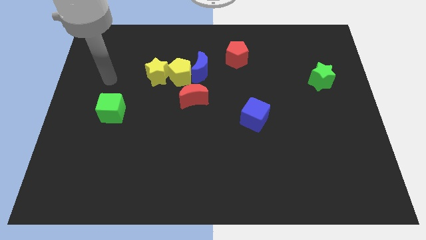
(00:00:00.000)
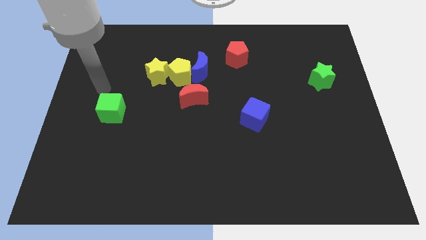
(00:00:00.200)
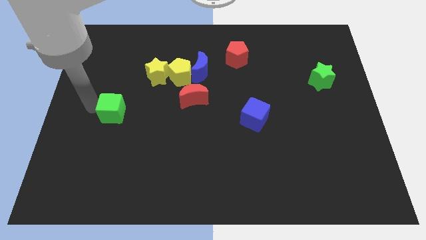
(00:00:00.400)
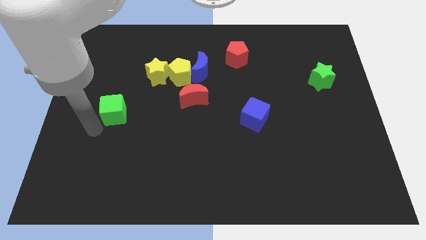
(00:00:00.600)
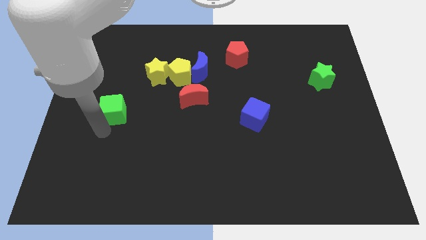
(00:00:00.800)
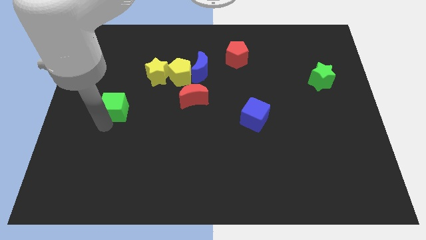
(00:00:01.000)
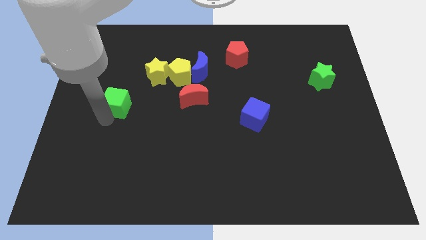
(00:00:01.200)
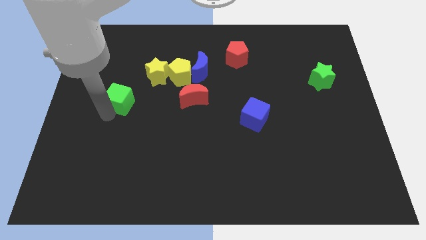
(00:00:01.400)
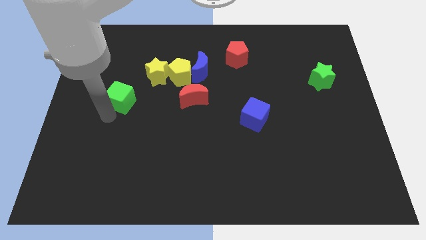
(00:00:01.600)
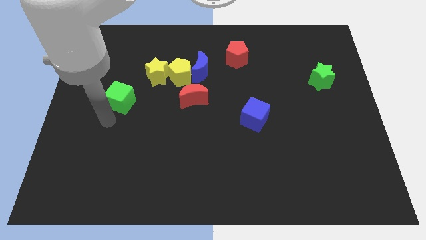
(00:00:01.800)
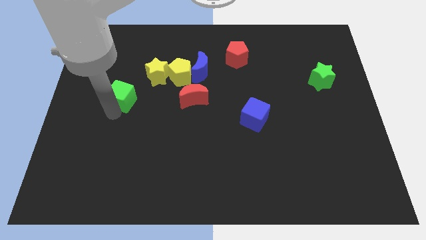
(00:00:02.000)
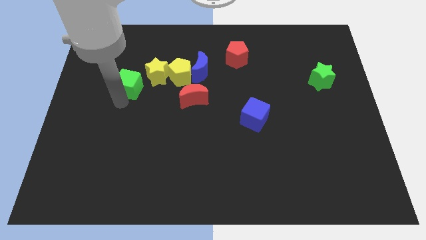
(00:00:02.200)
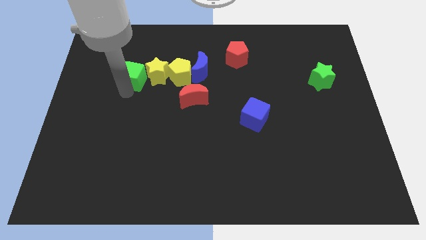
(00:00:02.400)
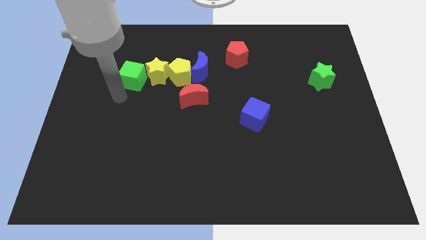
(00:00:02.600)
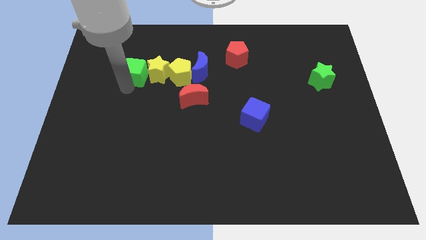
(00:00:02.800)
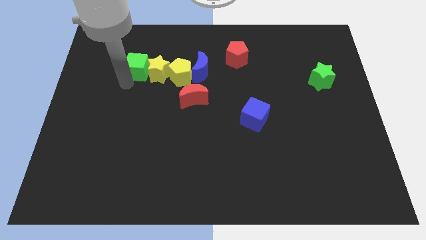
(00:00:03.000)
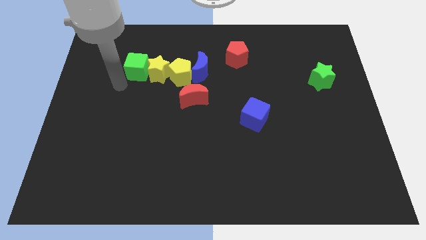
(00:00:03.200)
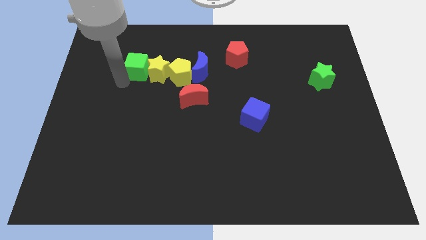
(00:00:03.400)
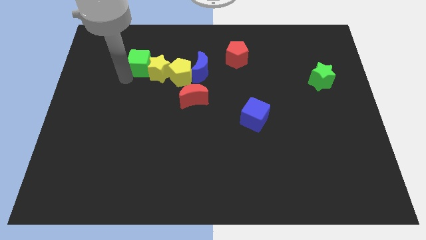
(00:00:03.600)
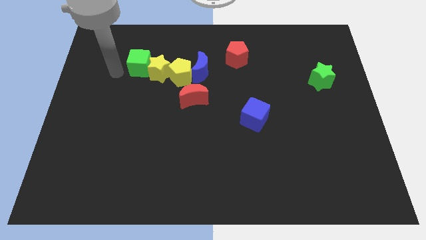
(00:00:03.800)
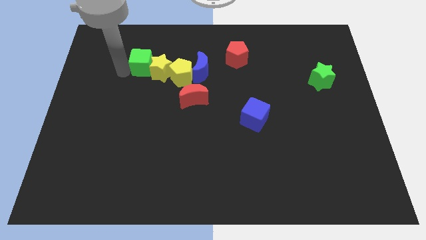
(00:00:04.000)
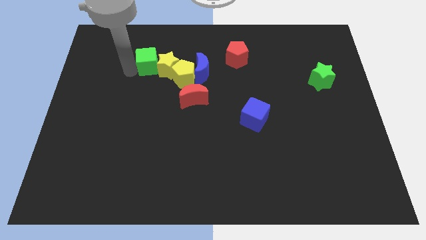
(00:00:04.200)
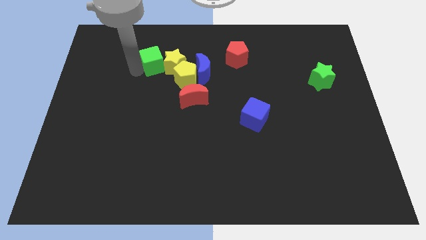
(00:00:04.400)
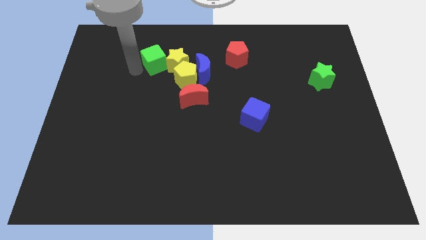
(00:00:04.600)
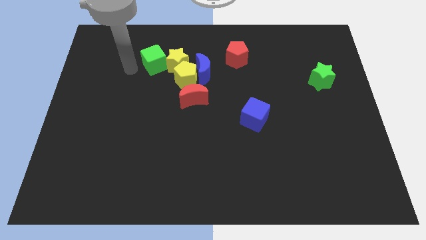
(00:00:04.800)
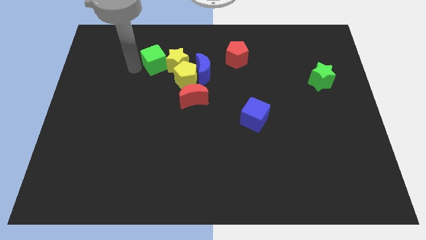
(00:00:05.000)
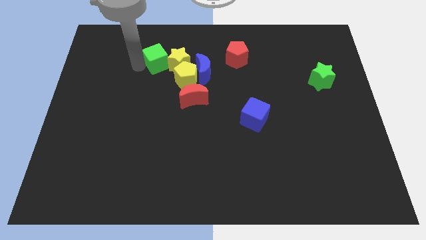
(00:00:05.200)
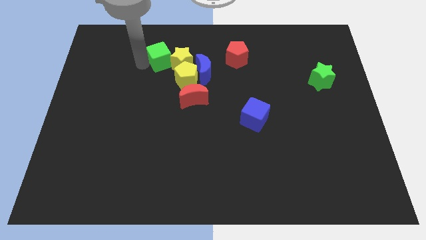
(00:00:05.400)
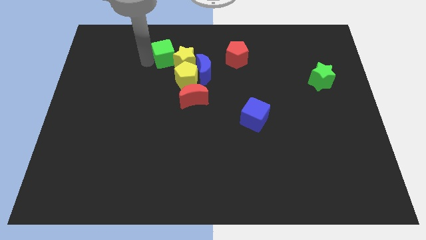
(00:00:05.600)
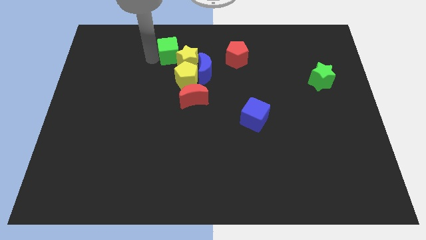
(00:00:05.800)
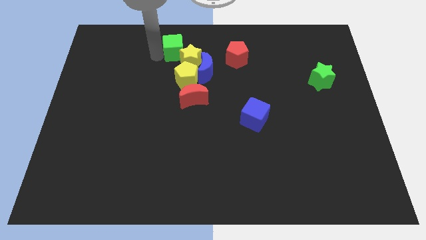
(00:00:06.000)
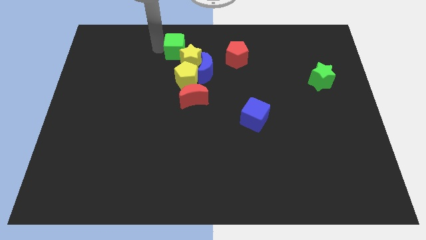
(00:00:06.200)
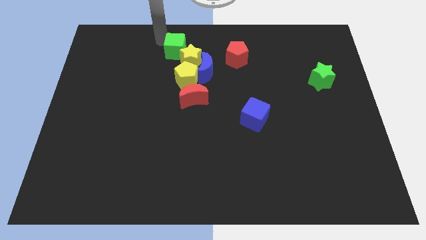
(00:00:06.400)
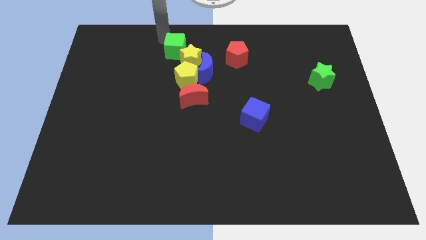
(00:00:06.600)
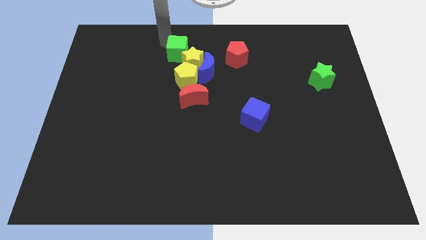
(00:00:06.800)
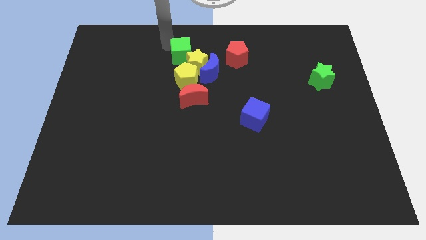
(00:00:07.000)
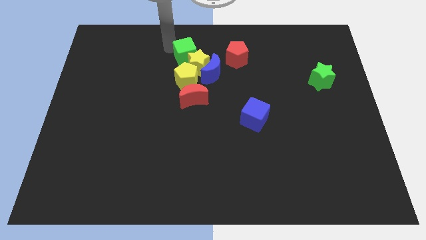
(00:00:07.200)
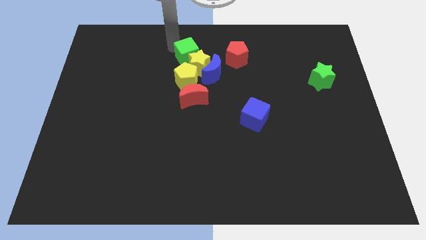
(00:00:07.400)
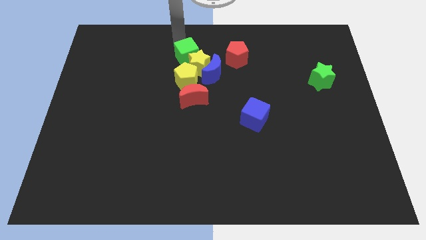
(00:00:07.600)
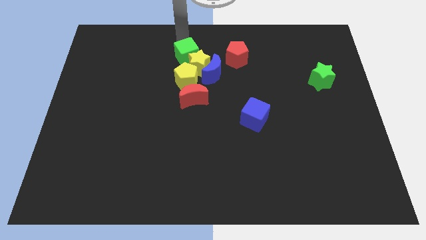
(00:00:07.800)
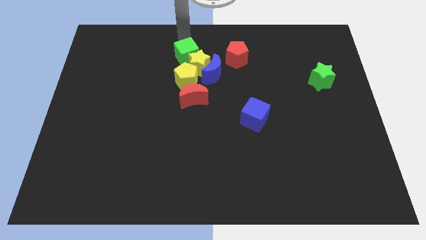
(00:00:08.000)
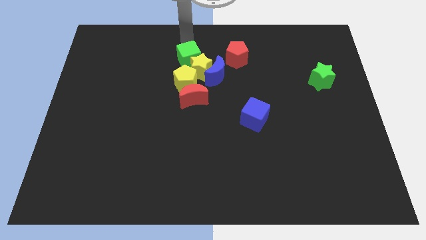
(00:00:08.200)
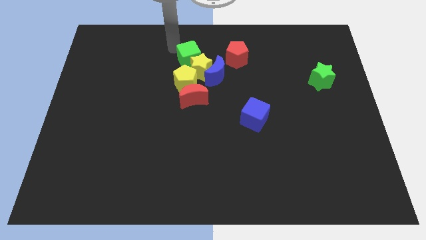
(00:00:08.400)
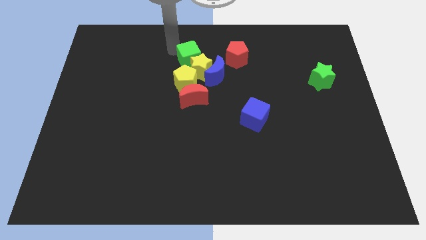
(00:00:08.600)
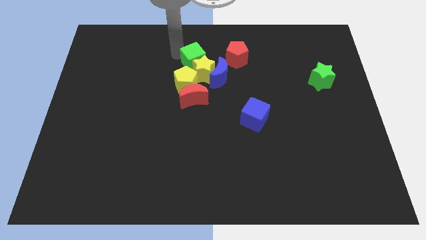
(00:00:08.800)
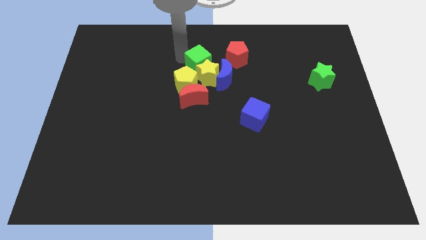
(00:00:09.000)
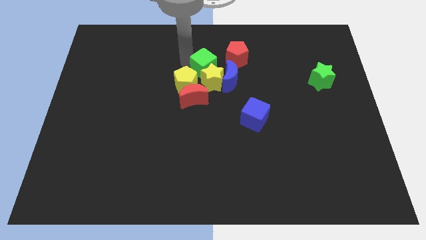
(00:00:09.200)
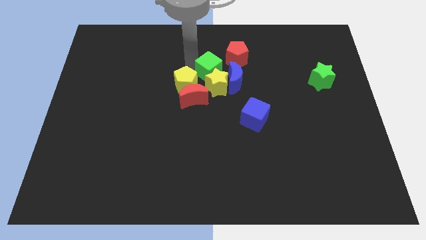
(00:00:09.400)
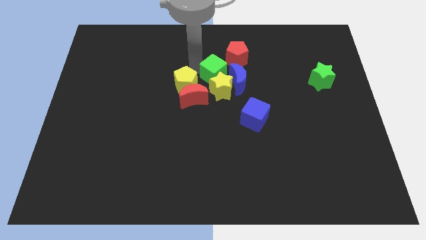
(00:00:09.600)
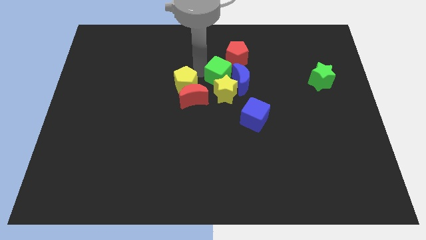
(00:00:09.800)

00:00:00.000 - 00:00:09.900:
push the green cube to the blue moon

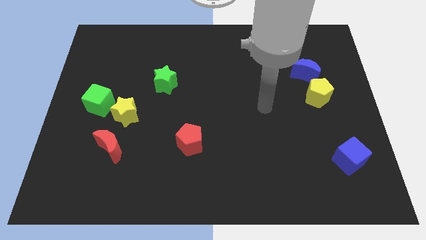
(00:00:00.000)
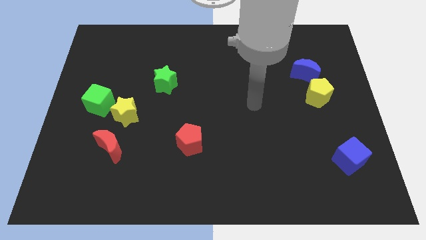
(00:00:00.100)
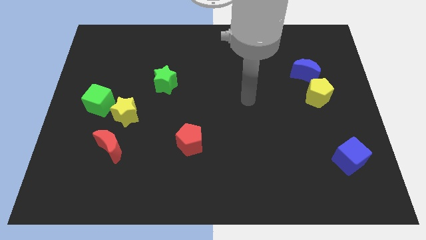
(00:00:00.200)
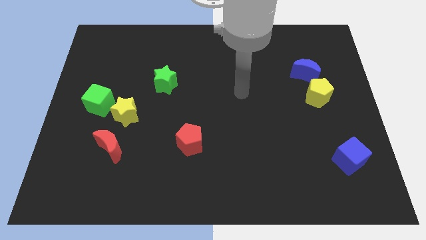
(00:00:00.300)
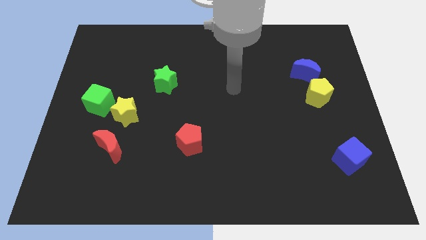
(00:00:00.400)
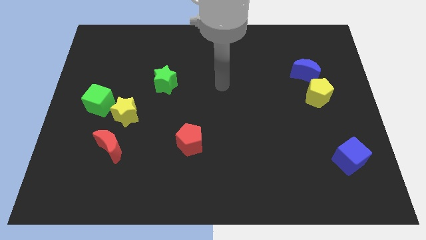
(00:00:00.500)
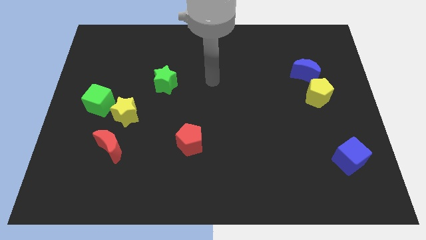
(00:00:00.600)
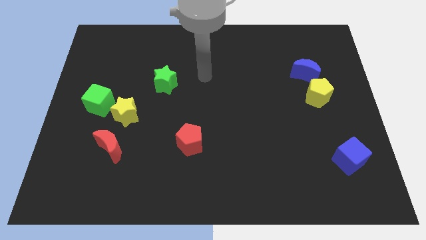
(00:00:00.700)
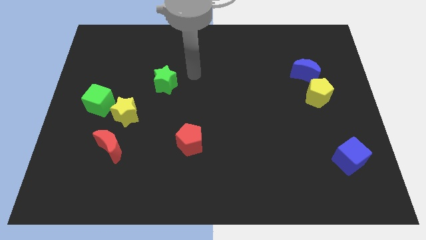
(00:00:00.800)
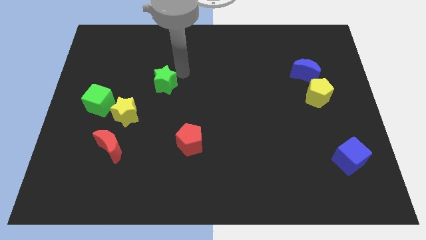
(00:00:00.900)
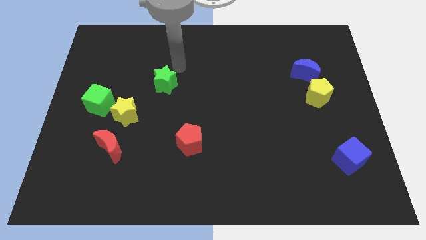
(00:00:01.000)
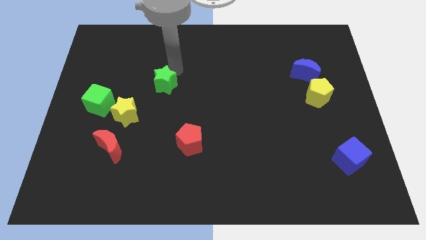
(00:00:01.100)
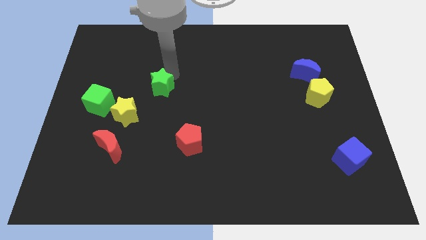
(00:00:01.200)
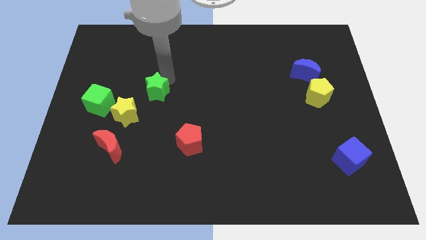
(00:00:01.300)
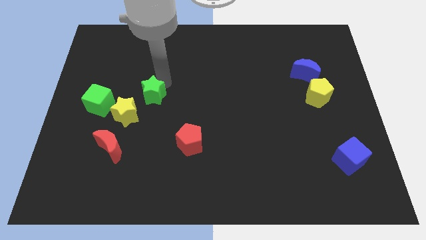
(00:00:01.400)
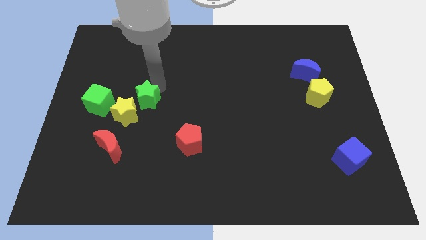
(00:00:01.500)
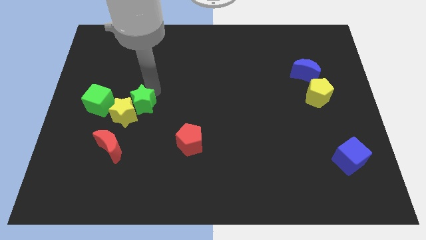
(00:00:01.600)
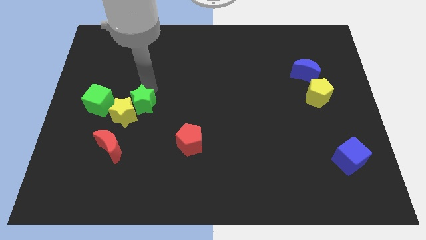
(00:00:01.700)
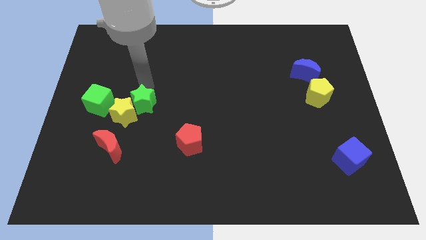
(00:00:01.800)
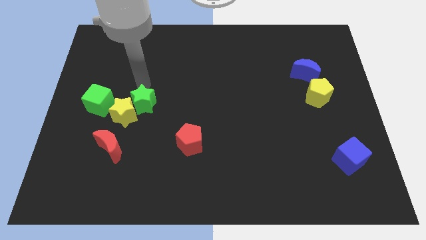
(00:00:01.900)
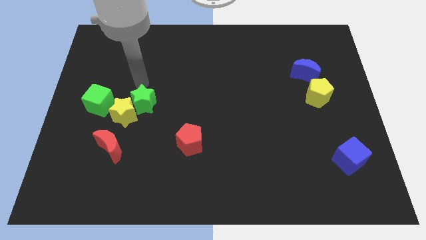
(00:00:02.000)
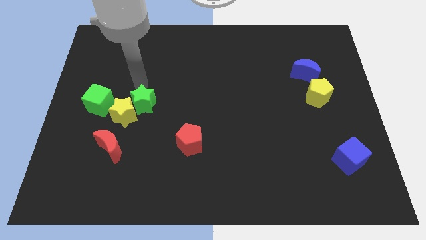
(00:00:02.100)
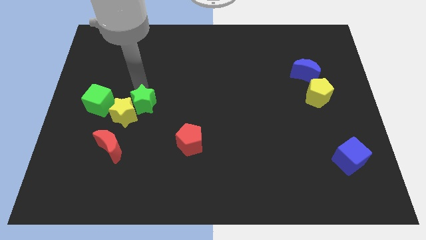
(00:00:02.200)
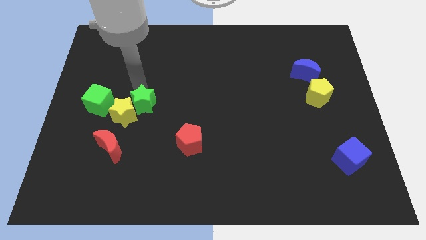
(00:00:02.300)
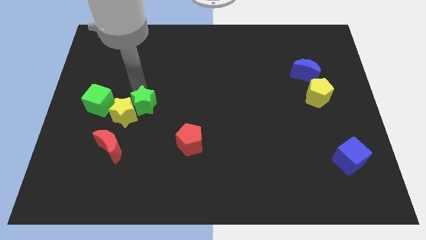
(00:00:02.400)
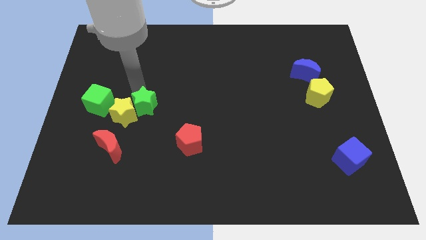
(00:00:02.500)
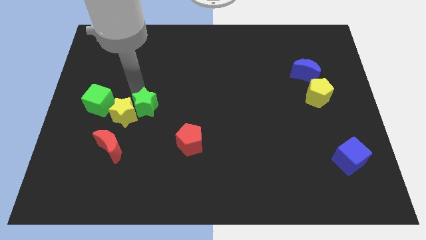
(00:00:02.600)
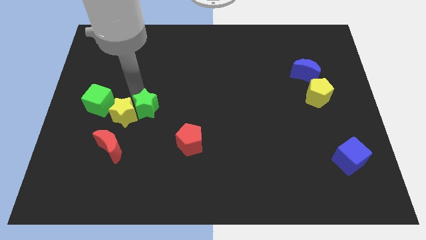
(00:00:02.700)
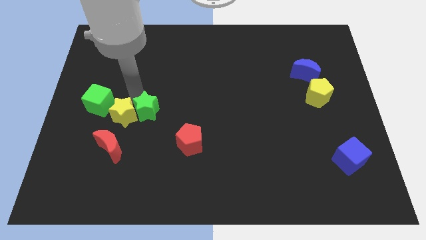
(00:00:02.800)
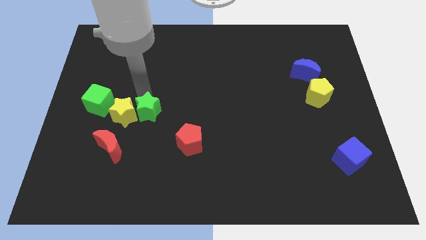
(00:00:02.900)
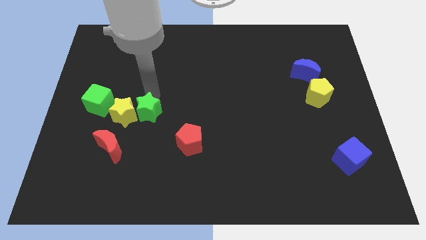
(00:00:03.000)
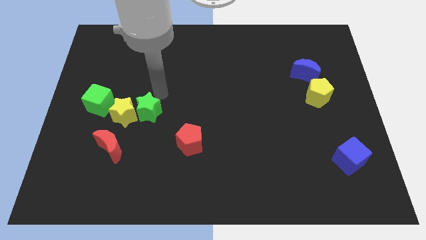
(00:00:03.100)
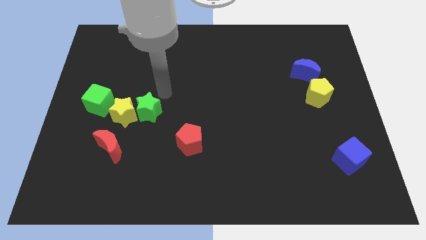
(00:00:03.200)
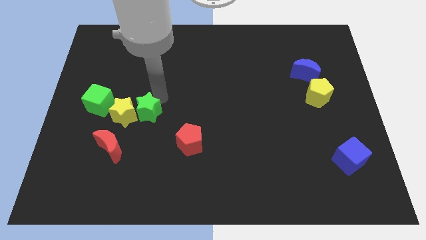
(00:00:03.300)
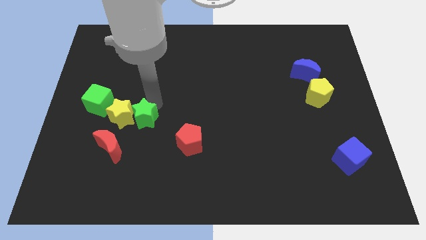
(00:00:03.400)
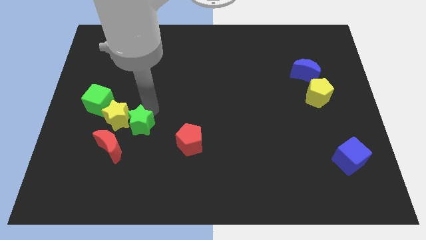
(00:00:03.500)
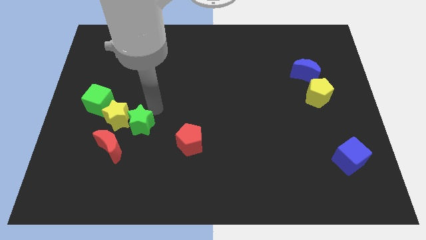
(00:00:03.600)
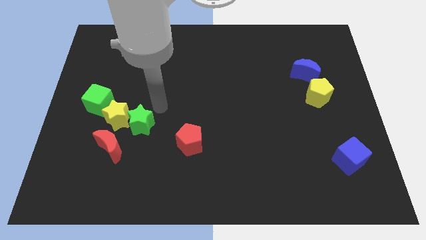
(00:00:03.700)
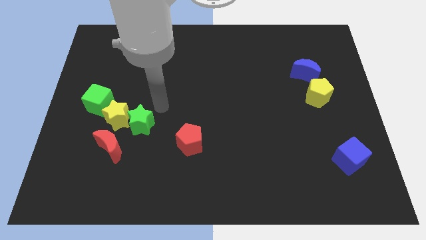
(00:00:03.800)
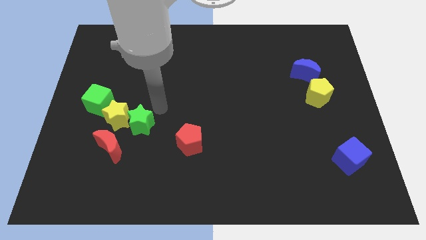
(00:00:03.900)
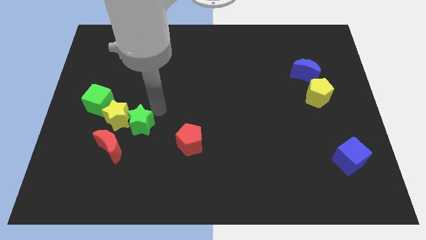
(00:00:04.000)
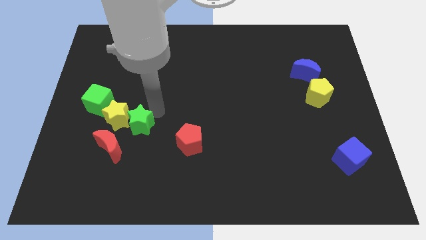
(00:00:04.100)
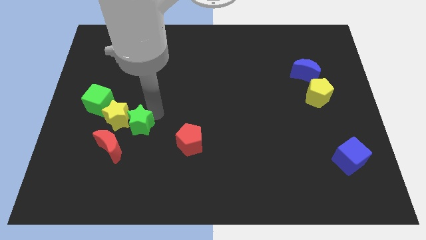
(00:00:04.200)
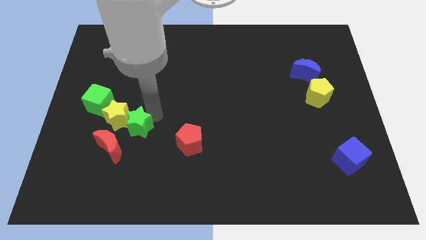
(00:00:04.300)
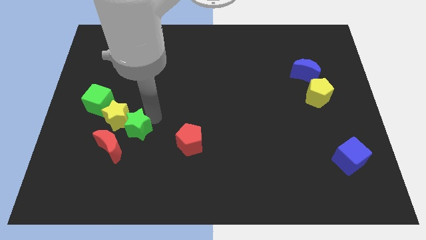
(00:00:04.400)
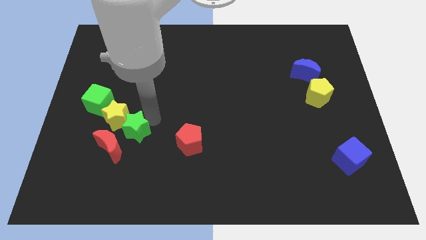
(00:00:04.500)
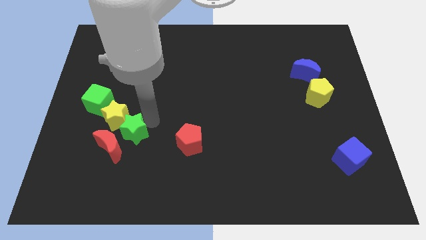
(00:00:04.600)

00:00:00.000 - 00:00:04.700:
put the green star towards the red moon
